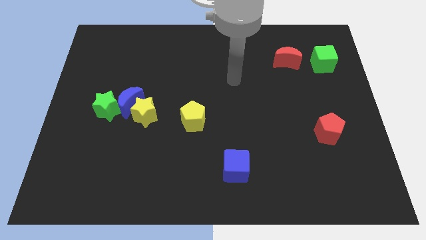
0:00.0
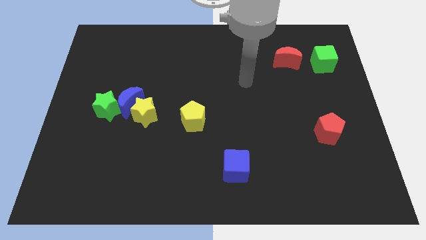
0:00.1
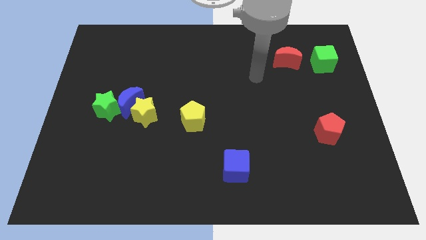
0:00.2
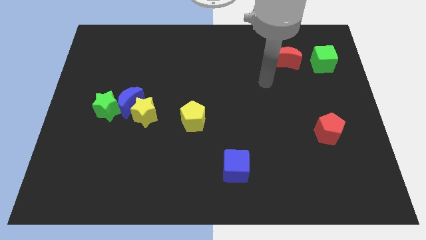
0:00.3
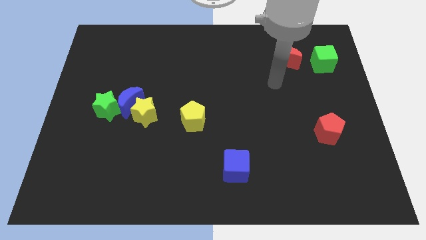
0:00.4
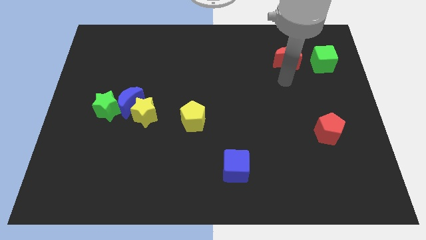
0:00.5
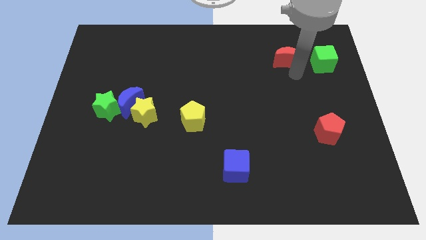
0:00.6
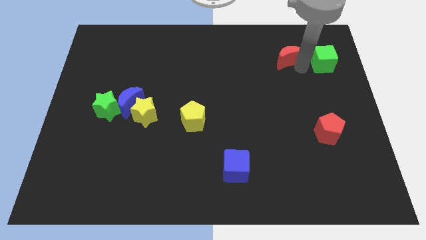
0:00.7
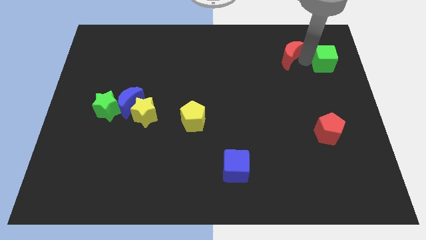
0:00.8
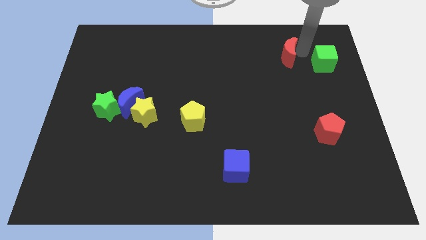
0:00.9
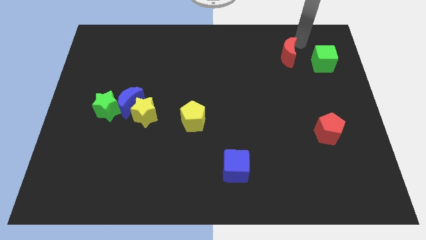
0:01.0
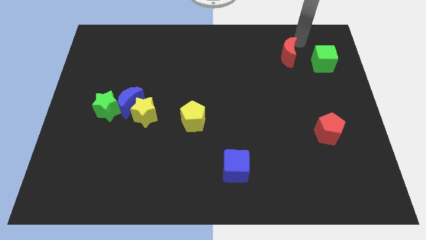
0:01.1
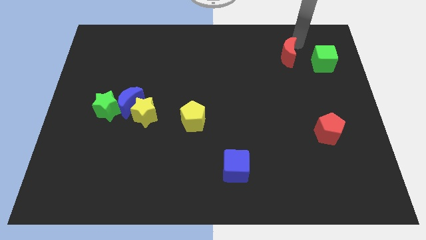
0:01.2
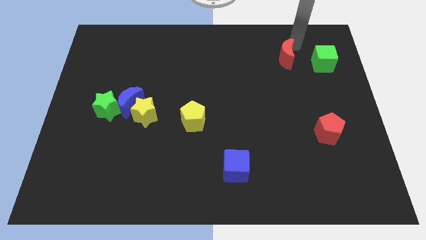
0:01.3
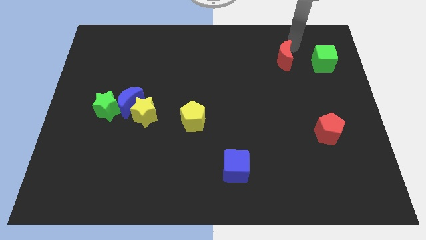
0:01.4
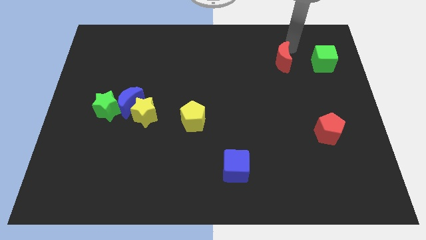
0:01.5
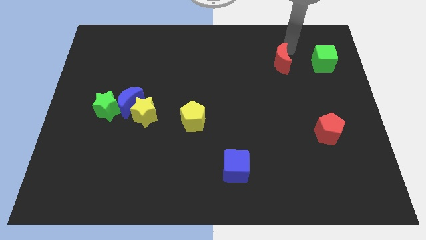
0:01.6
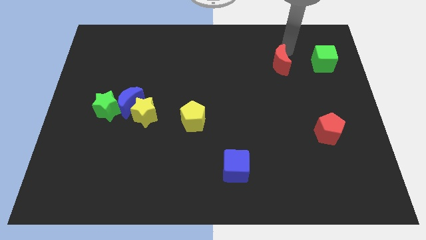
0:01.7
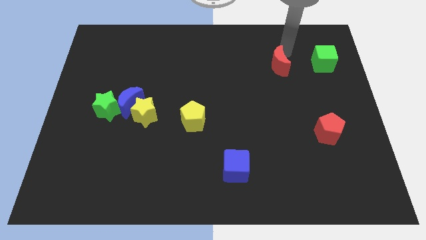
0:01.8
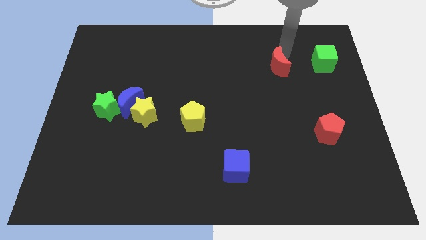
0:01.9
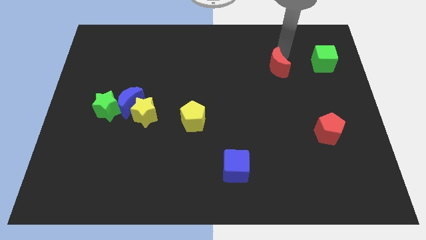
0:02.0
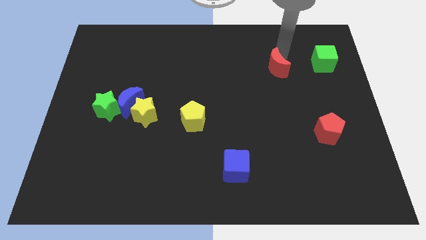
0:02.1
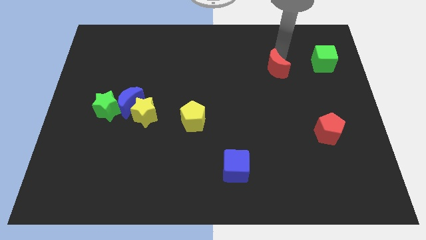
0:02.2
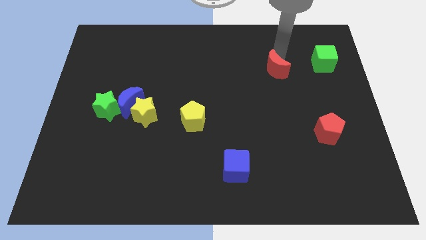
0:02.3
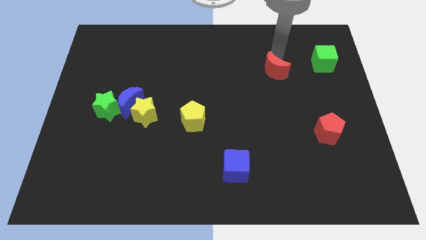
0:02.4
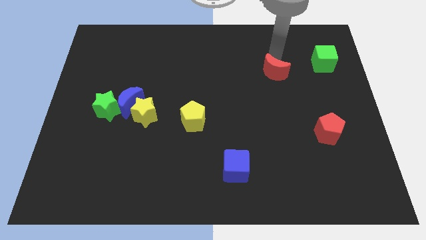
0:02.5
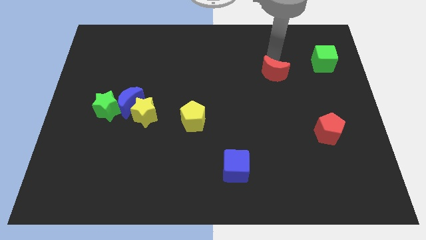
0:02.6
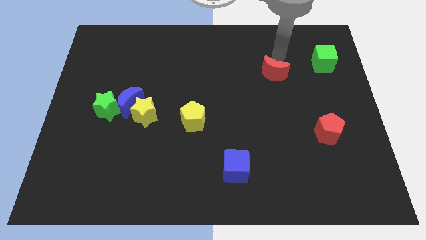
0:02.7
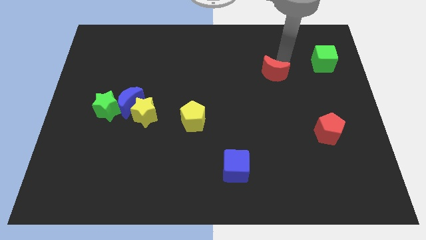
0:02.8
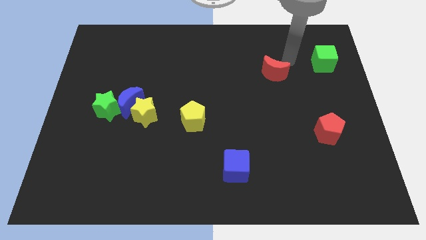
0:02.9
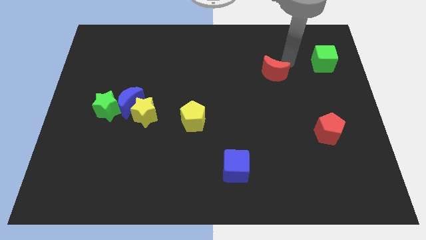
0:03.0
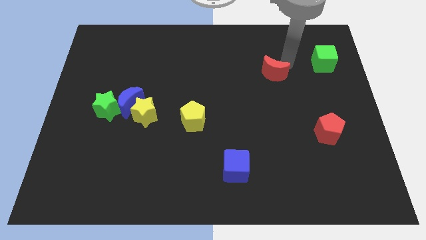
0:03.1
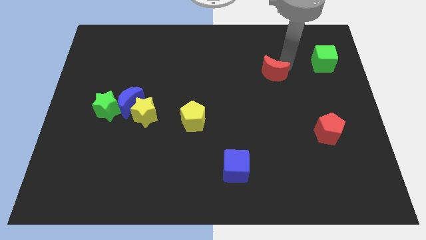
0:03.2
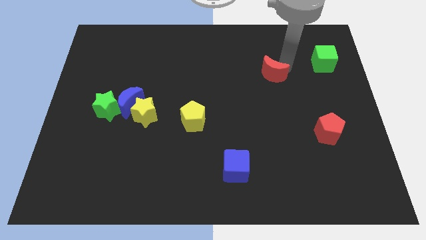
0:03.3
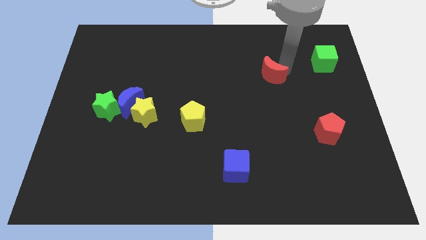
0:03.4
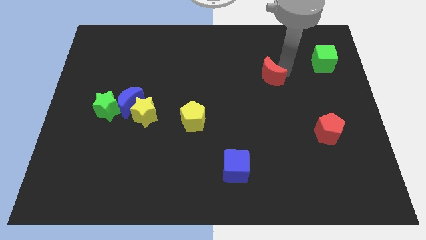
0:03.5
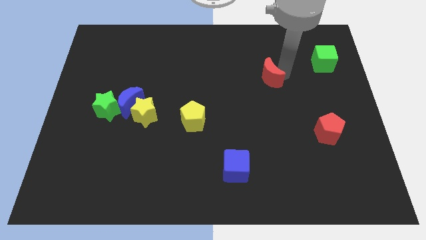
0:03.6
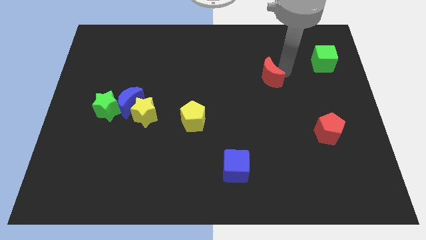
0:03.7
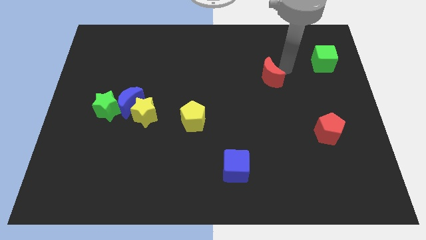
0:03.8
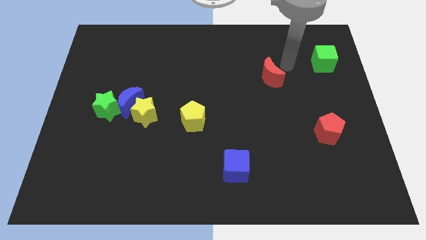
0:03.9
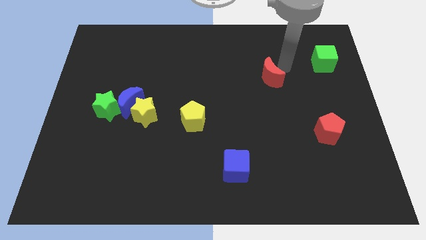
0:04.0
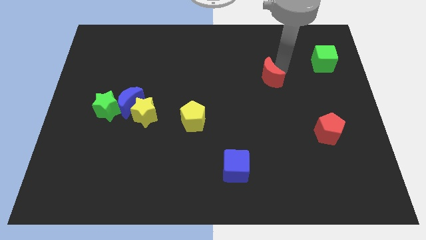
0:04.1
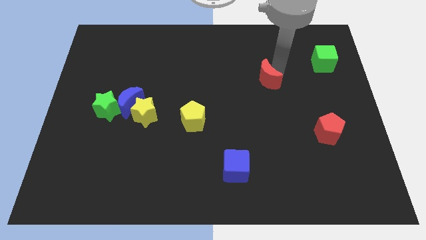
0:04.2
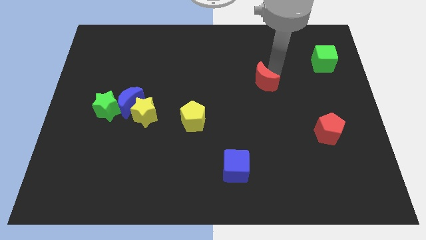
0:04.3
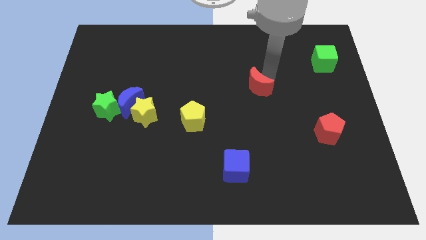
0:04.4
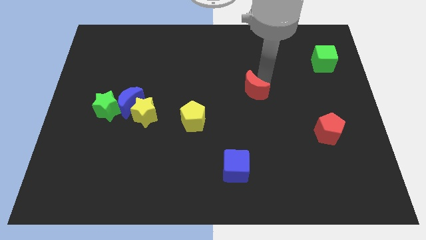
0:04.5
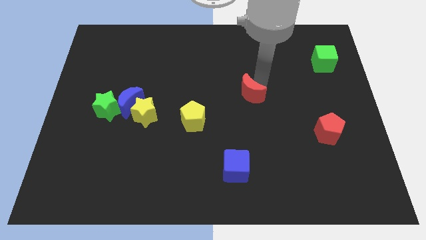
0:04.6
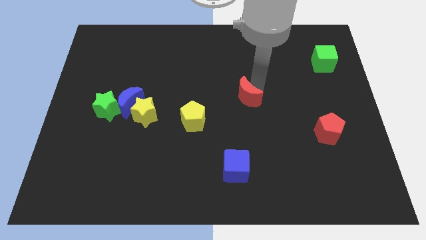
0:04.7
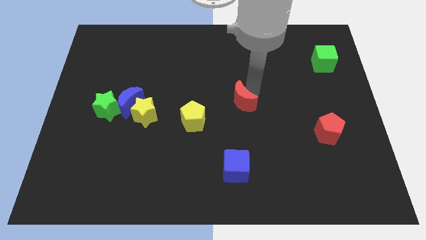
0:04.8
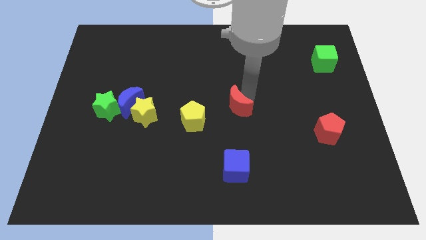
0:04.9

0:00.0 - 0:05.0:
move the red moon diagonally down and left

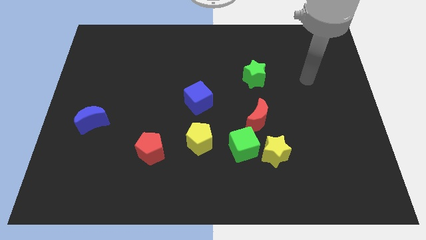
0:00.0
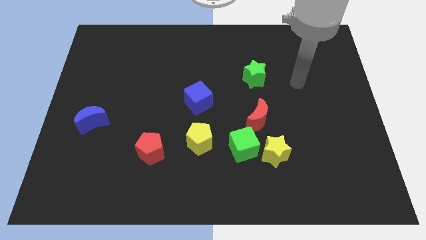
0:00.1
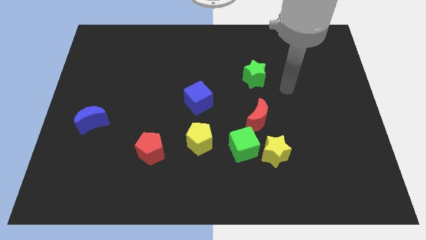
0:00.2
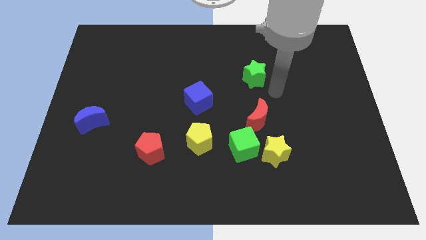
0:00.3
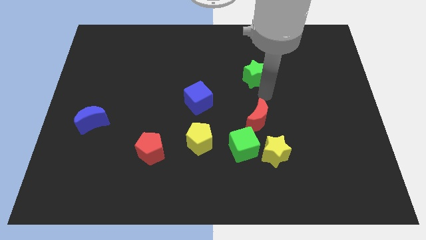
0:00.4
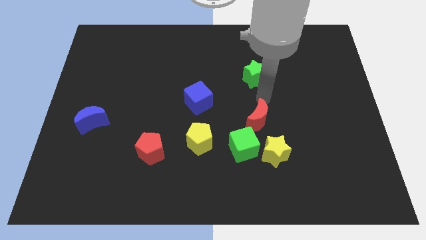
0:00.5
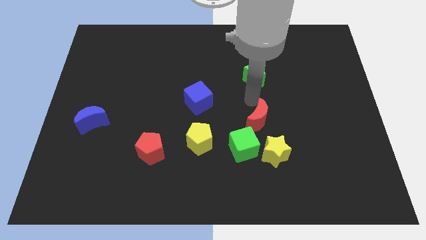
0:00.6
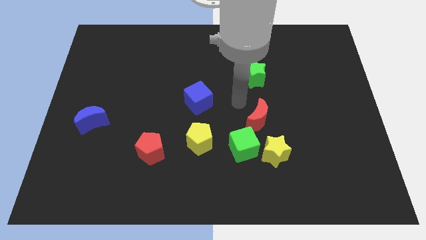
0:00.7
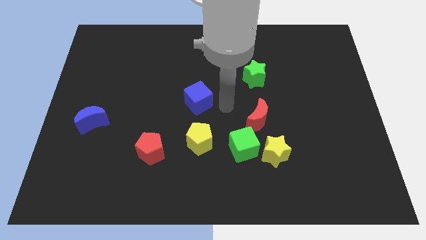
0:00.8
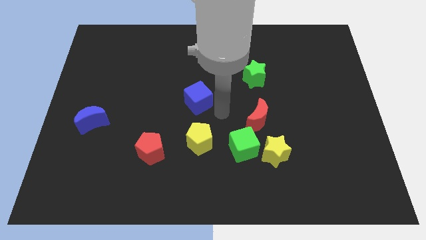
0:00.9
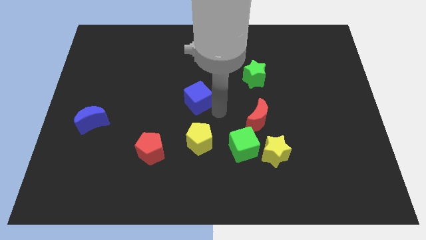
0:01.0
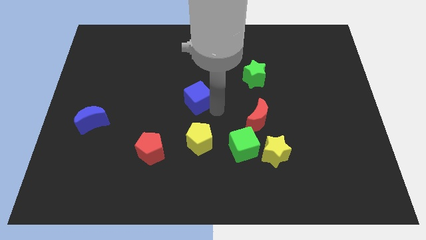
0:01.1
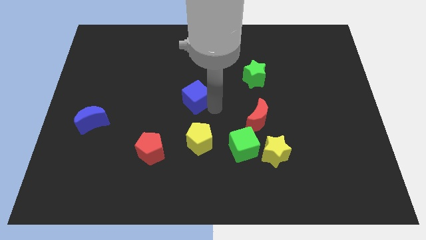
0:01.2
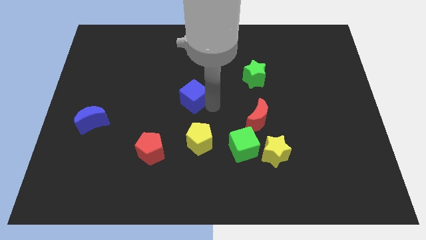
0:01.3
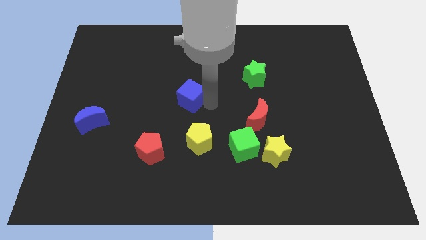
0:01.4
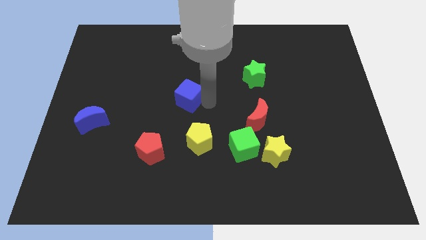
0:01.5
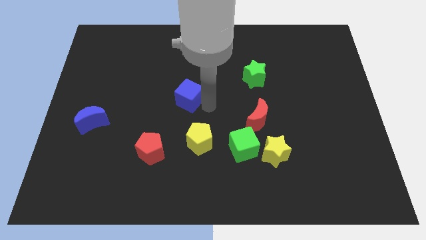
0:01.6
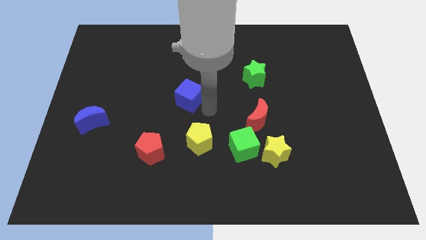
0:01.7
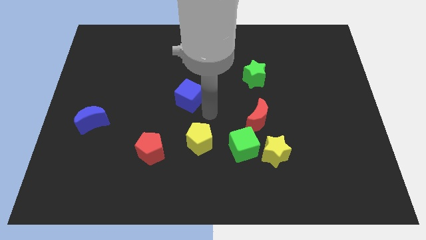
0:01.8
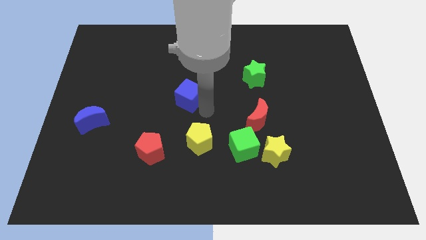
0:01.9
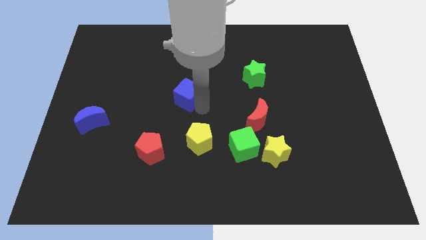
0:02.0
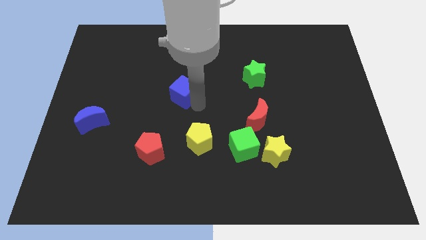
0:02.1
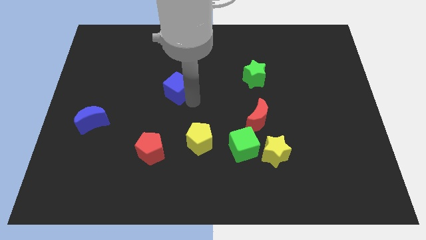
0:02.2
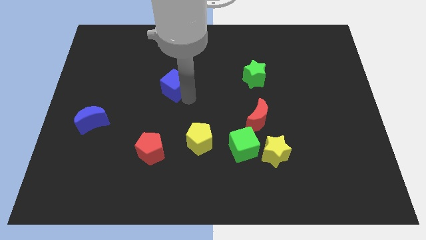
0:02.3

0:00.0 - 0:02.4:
slide the blue cube a bit up and then to the left

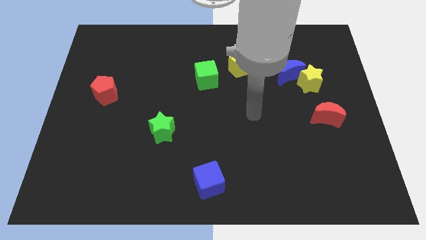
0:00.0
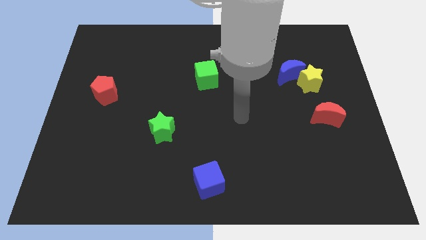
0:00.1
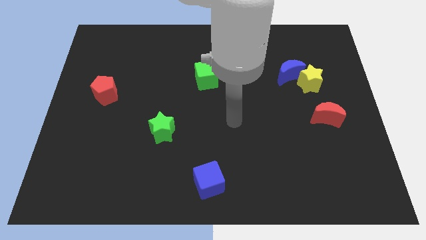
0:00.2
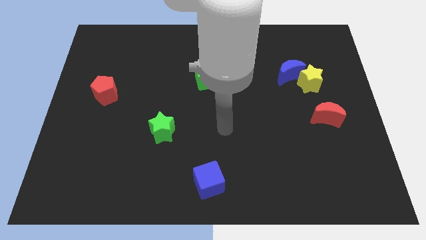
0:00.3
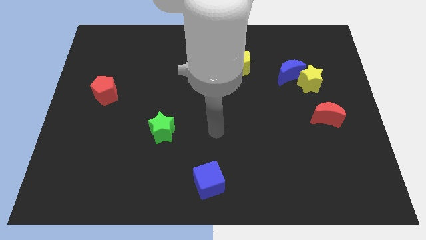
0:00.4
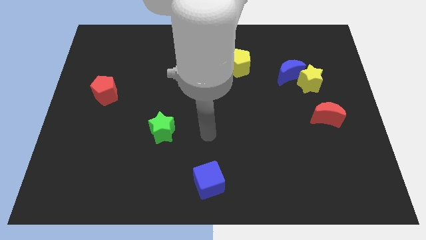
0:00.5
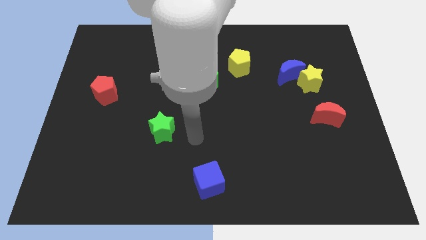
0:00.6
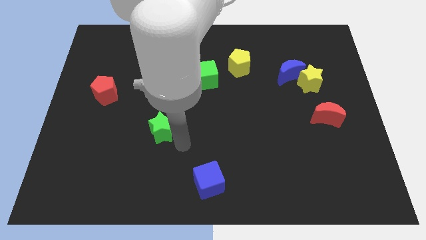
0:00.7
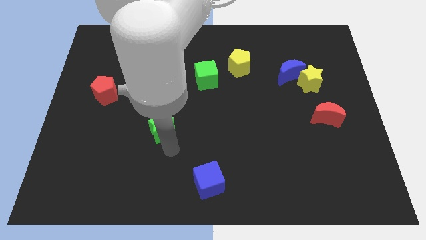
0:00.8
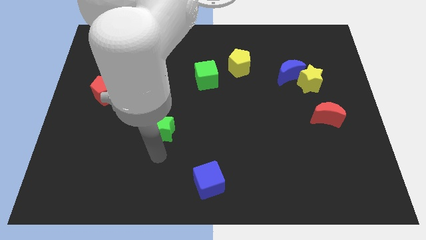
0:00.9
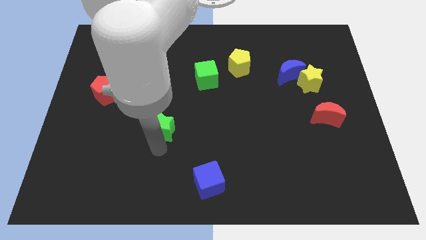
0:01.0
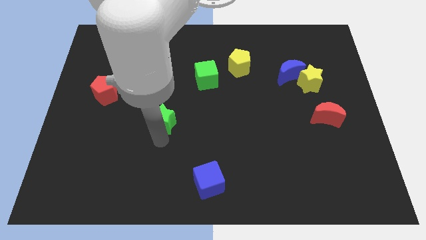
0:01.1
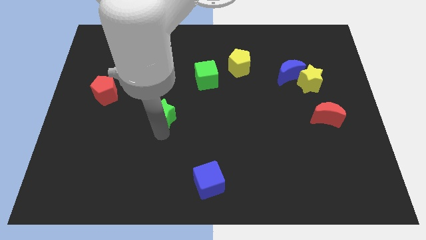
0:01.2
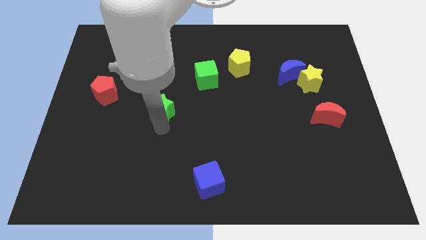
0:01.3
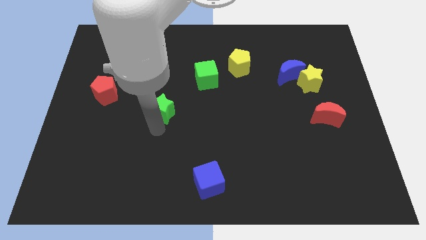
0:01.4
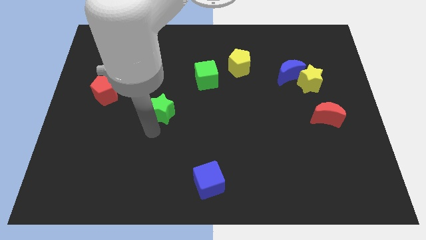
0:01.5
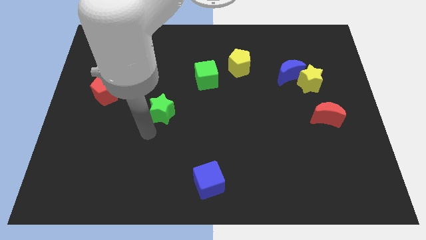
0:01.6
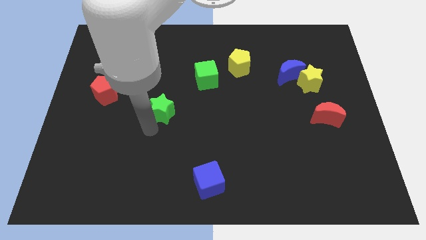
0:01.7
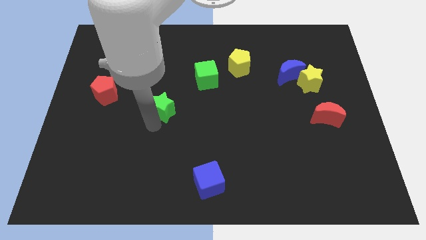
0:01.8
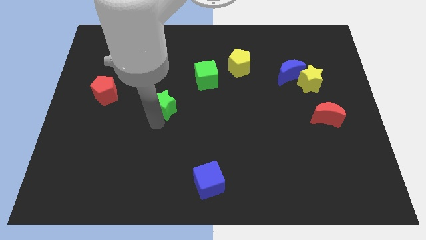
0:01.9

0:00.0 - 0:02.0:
slightly move the green star upwards
